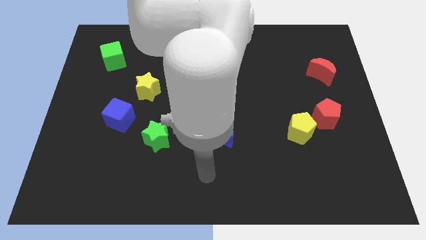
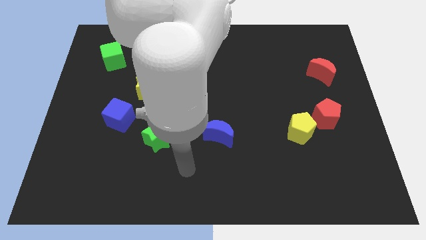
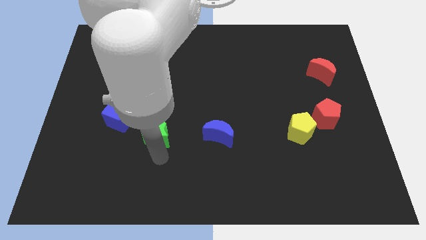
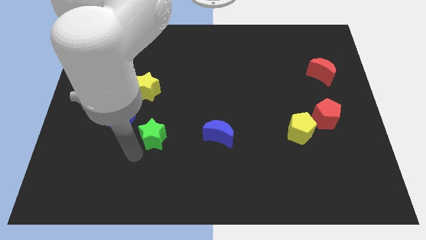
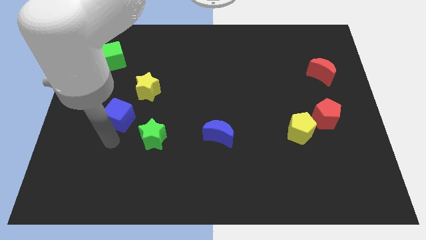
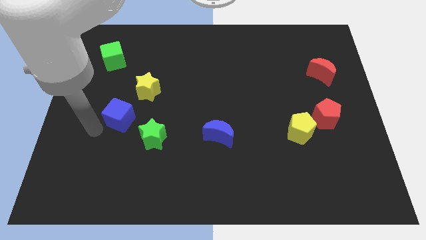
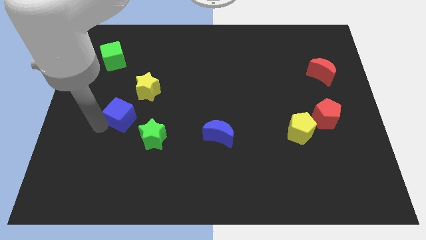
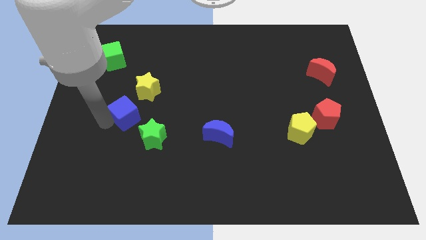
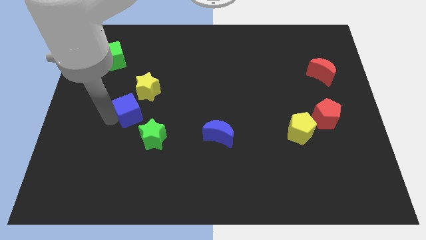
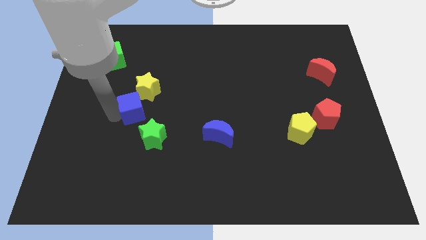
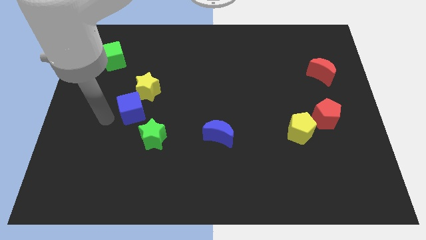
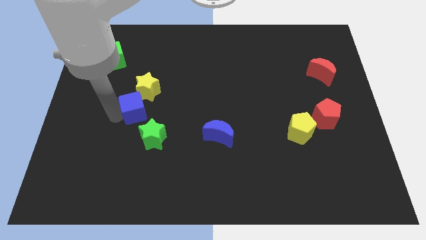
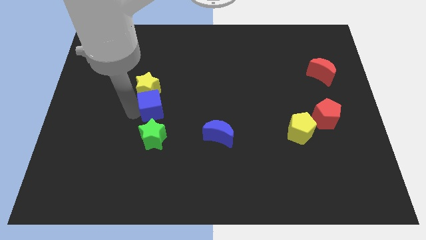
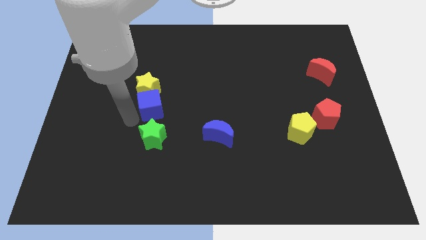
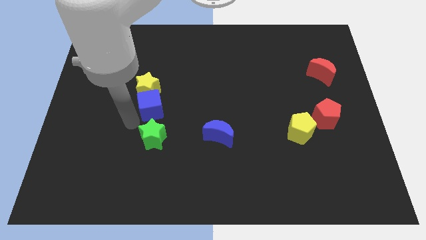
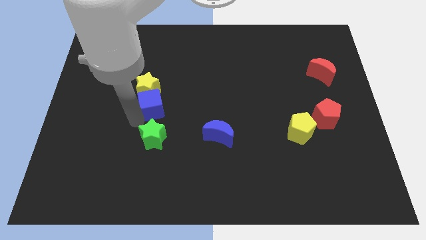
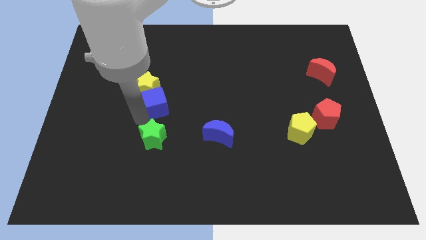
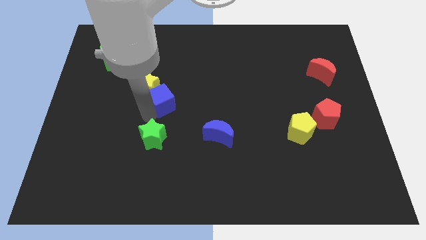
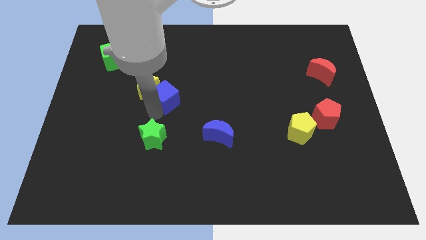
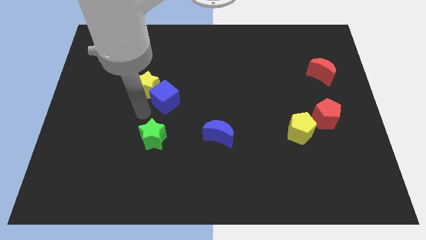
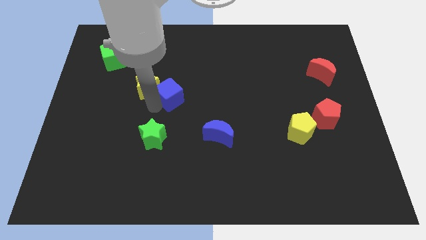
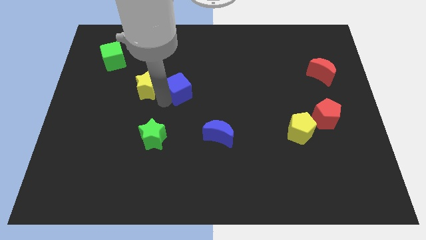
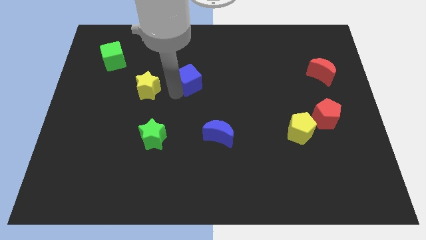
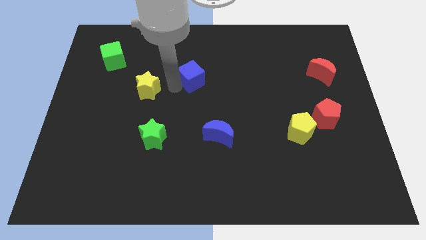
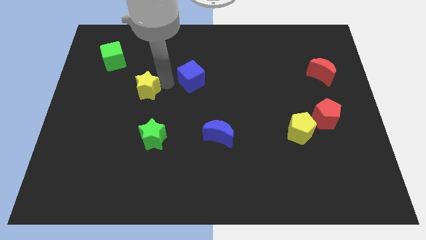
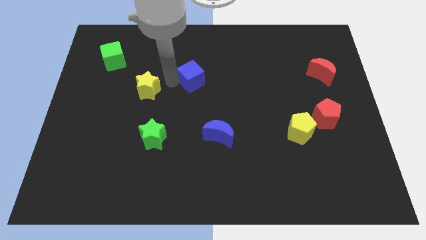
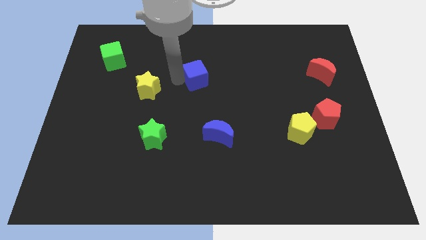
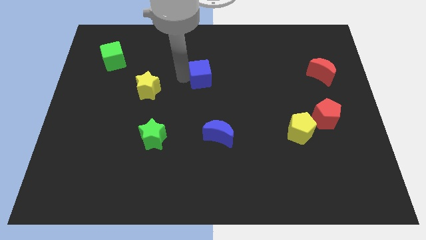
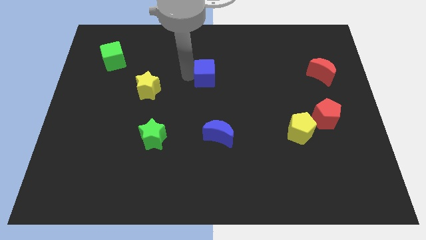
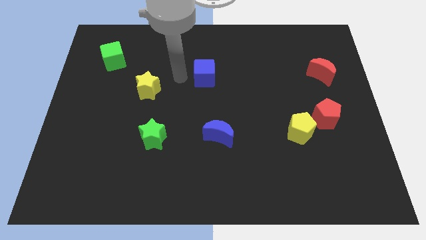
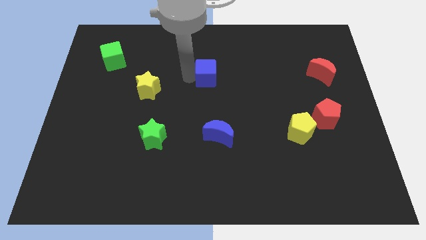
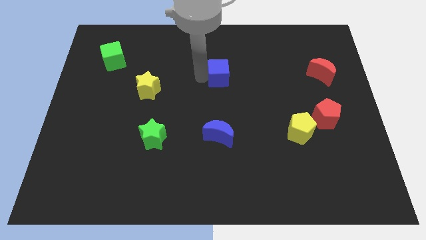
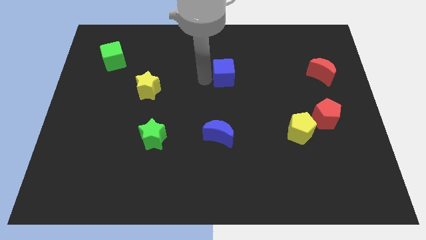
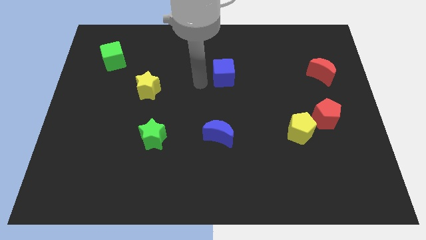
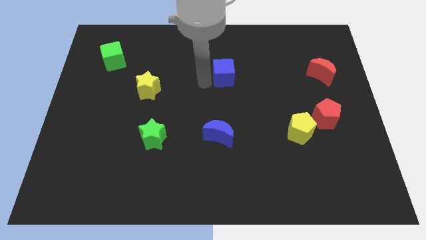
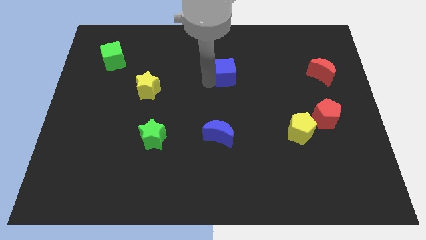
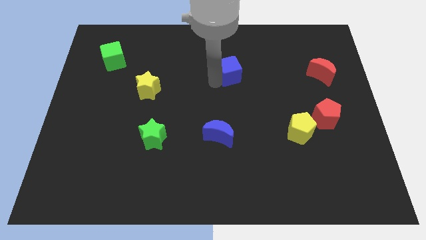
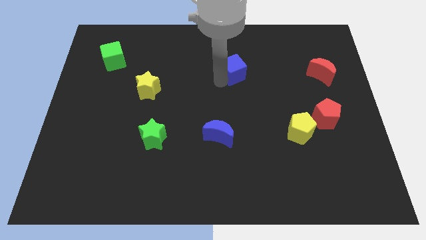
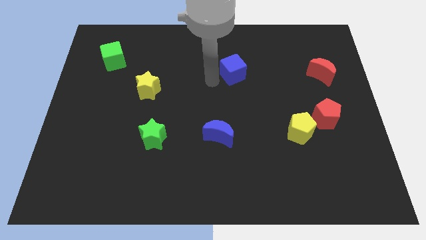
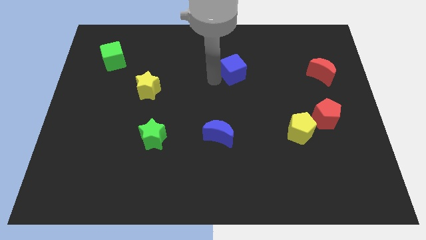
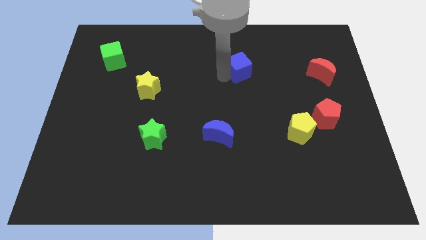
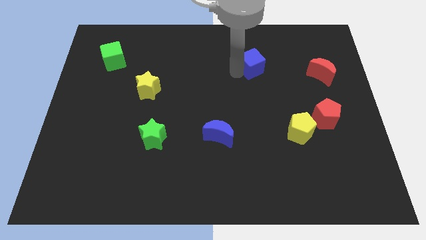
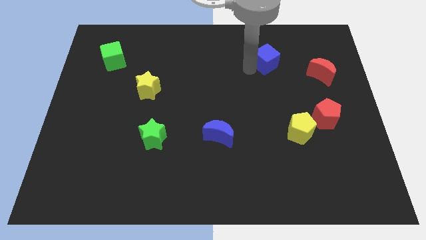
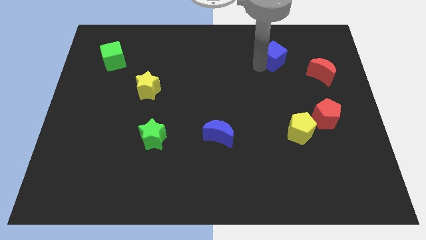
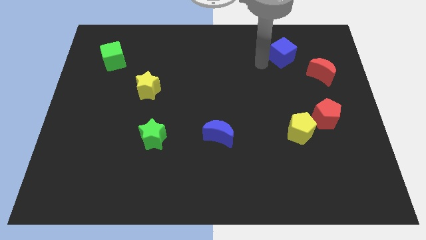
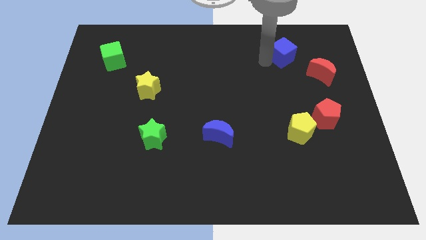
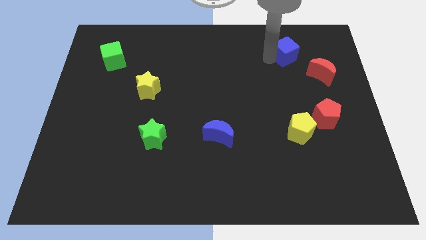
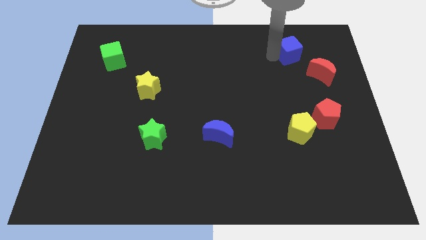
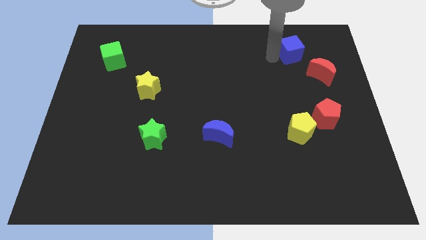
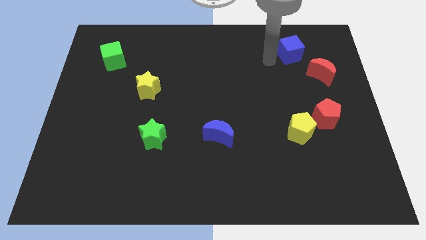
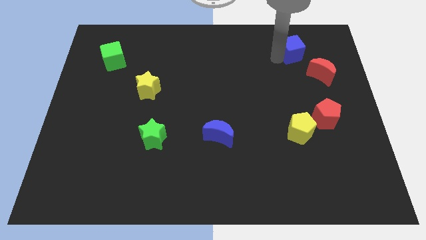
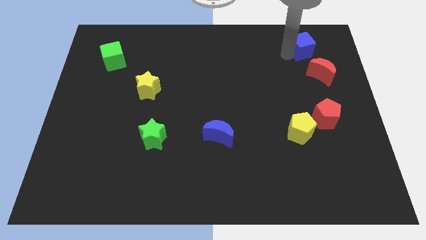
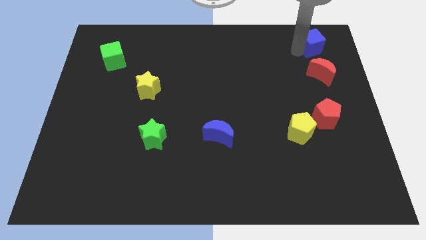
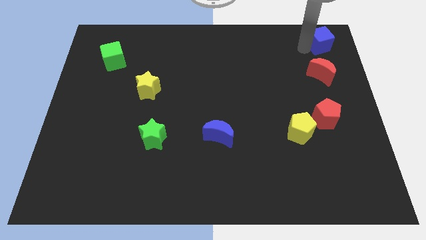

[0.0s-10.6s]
push the blue cube to the top right corner

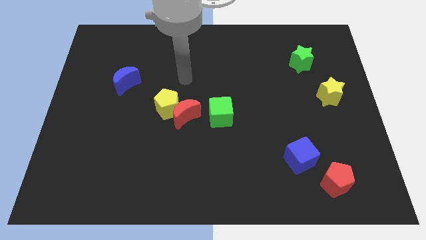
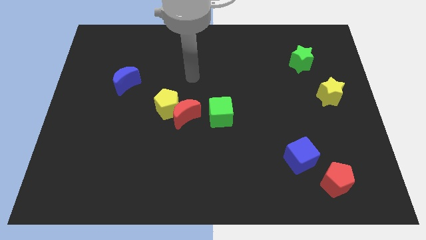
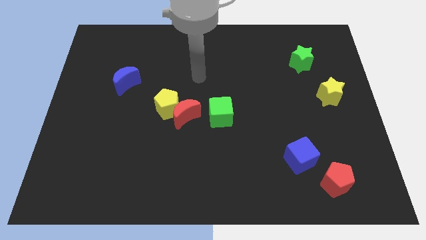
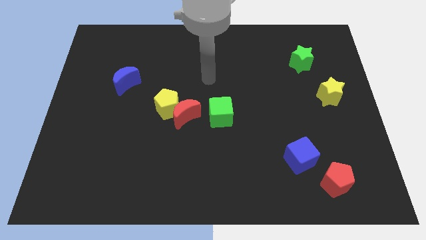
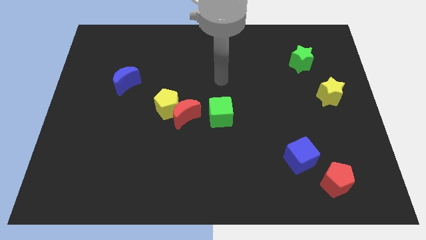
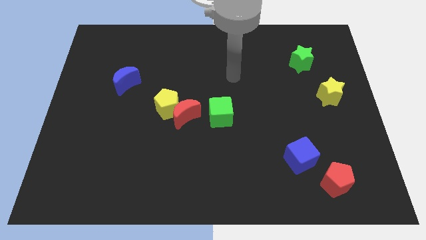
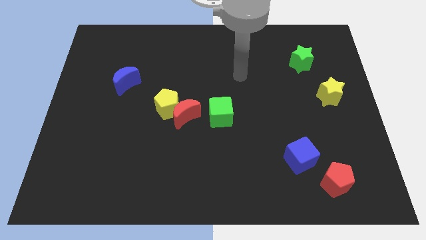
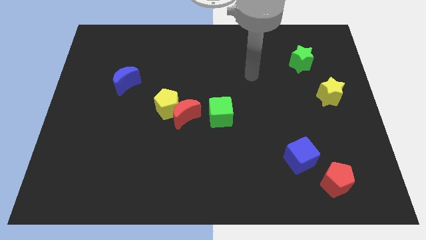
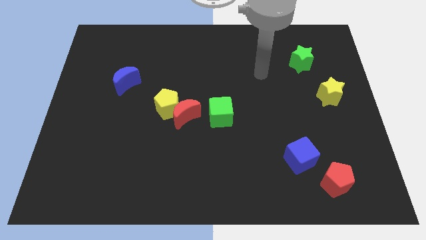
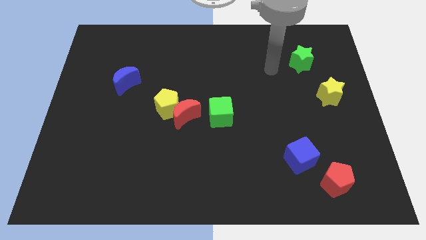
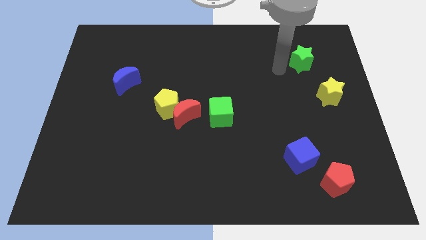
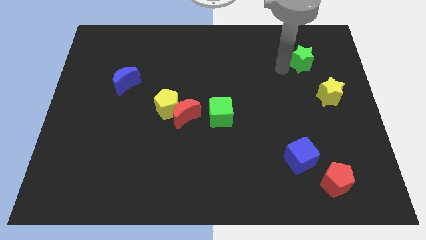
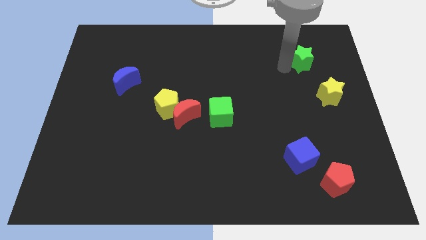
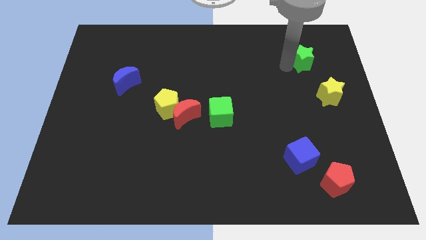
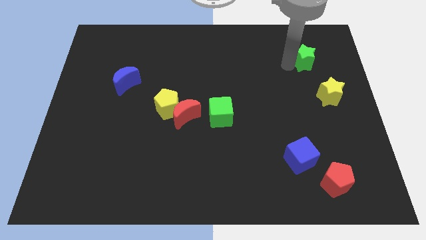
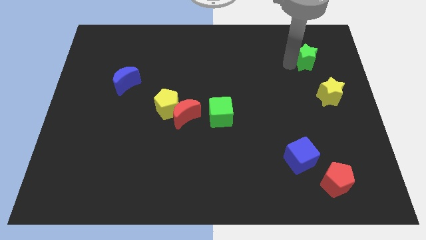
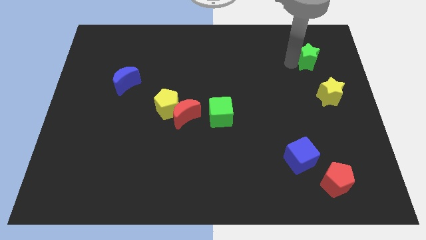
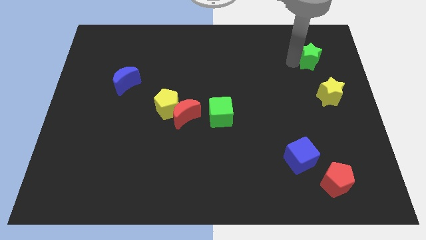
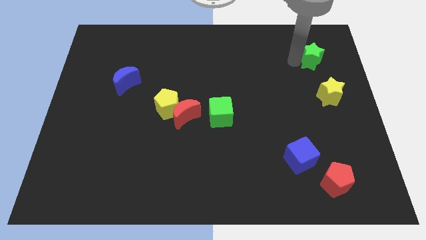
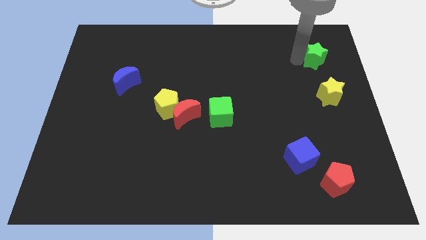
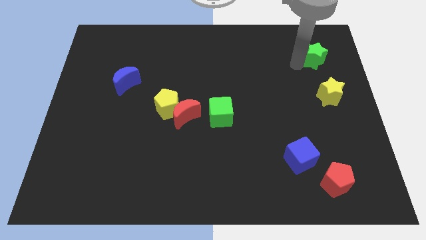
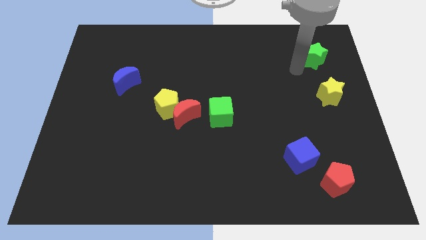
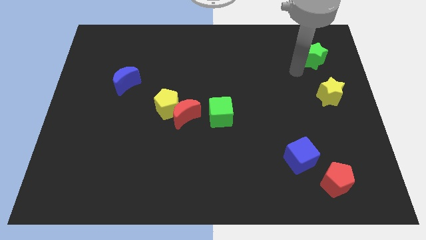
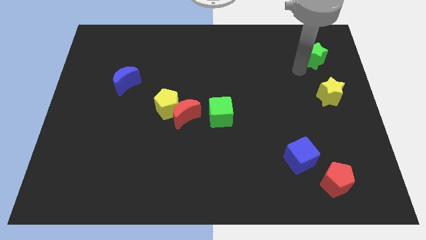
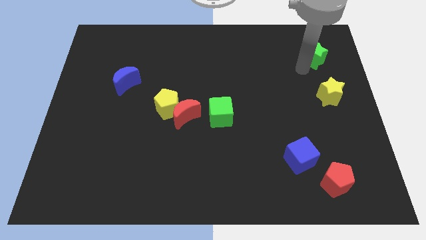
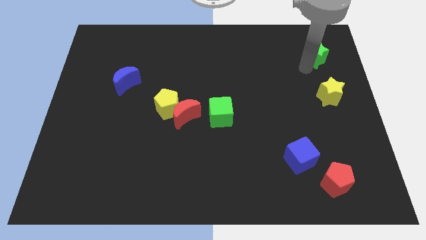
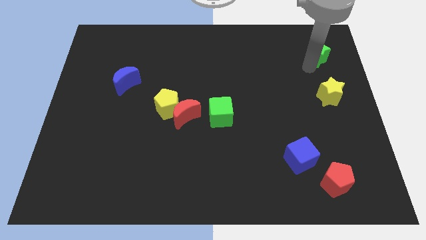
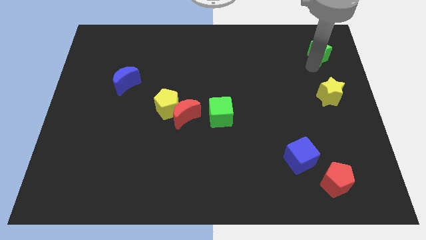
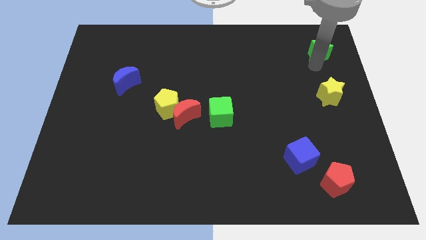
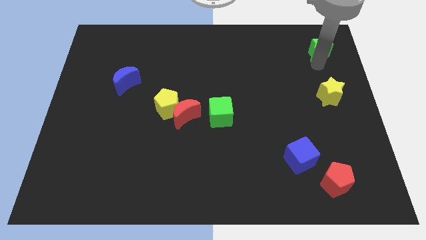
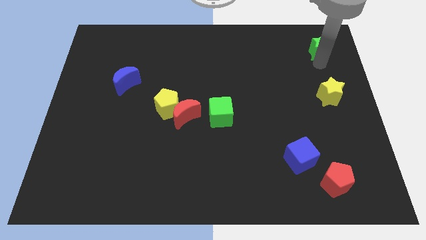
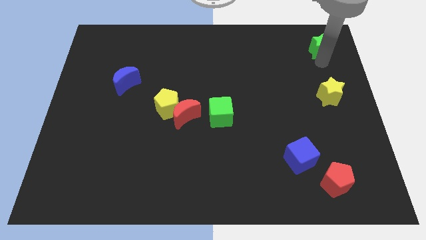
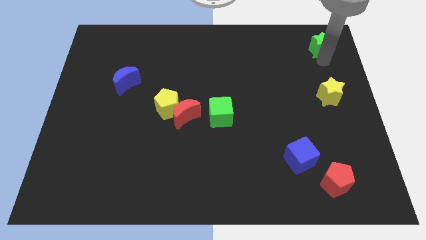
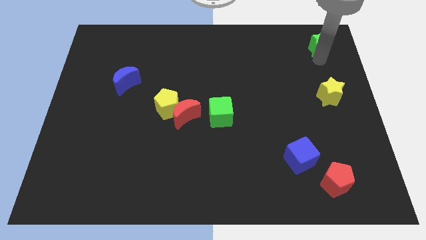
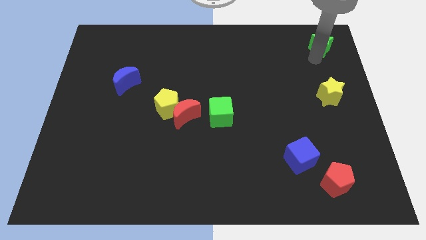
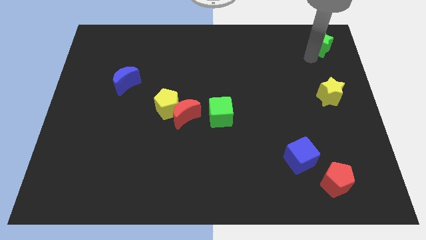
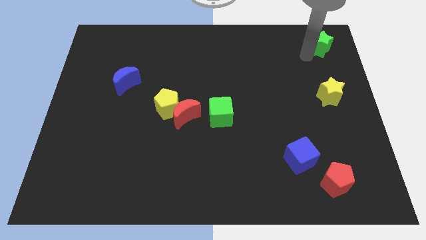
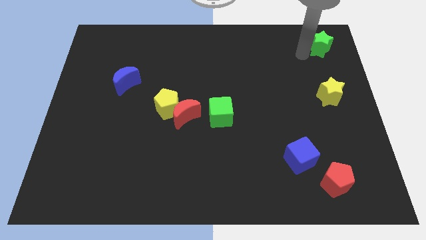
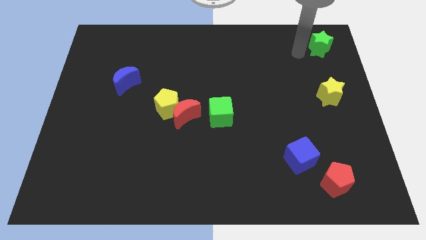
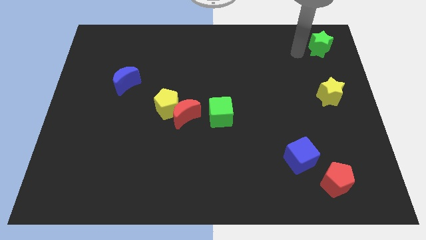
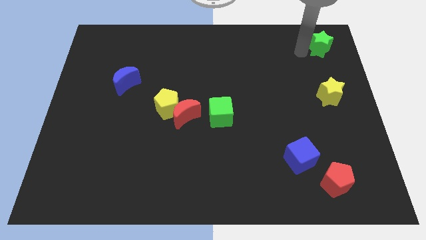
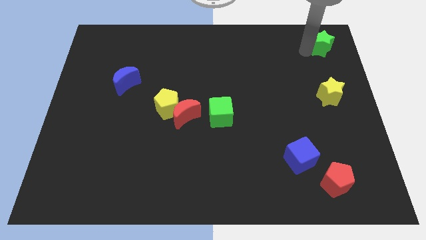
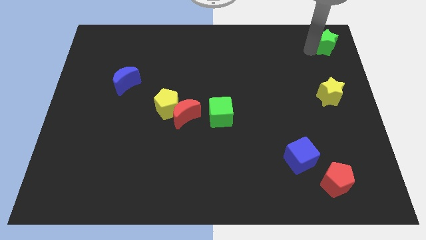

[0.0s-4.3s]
push the green star to the top right corner
